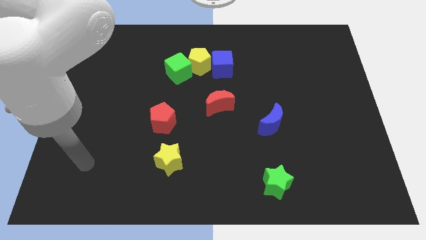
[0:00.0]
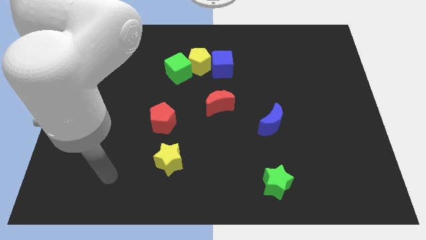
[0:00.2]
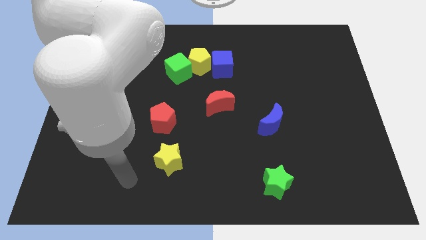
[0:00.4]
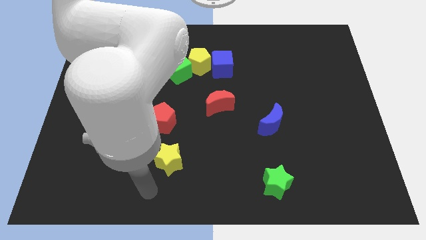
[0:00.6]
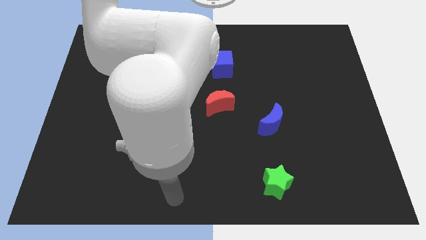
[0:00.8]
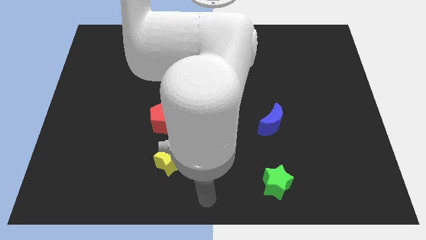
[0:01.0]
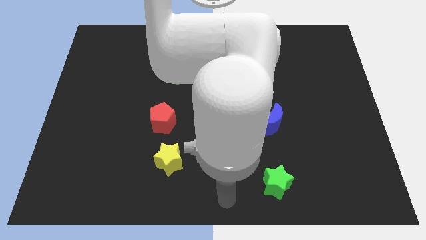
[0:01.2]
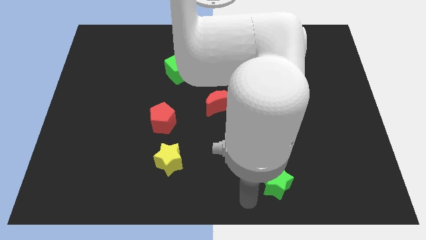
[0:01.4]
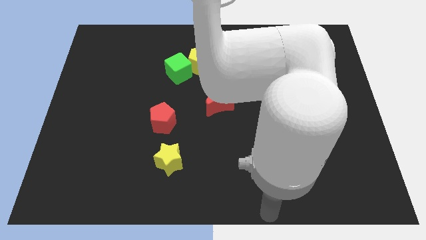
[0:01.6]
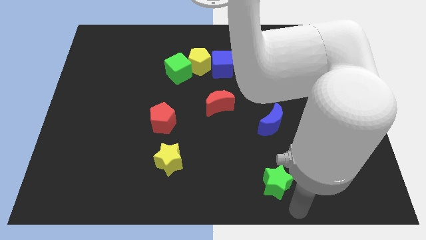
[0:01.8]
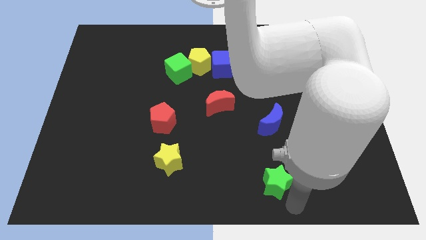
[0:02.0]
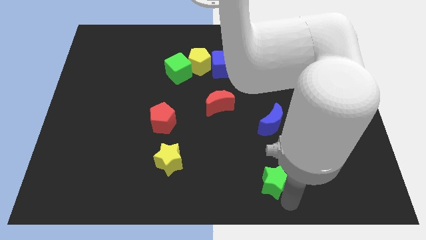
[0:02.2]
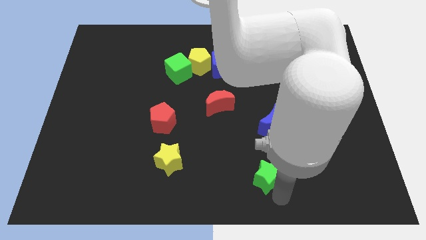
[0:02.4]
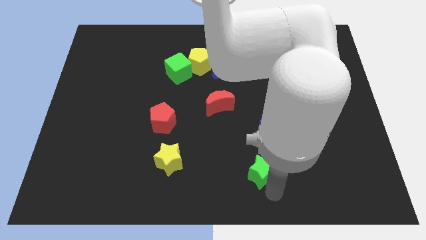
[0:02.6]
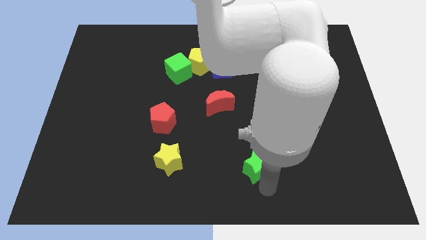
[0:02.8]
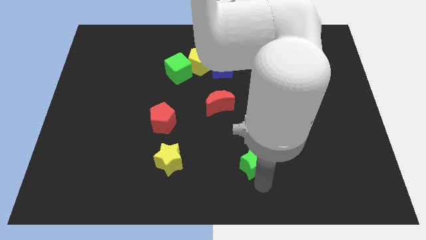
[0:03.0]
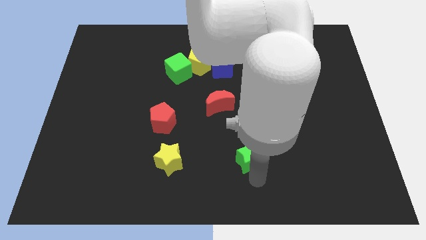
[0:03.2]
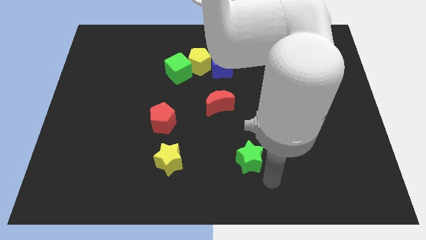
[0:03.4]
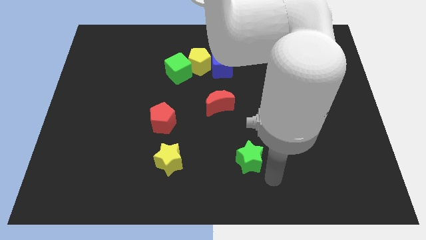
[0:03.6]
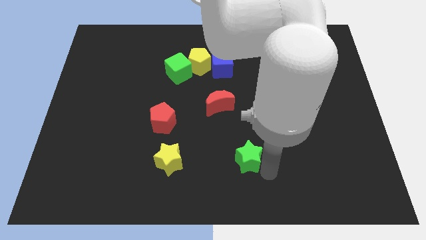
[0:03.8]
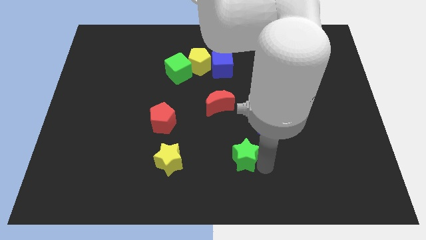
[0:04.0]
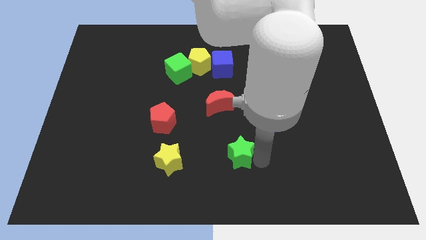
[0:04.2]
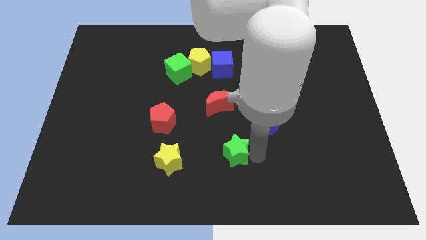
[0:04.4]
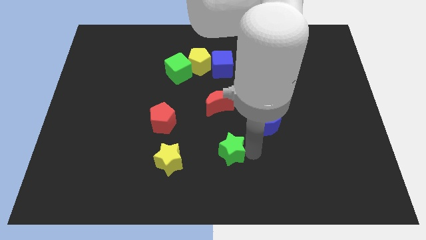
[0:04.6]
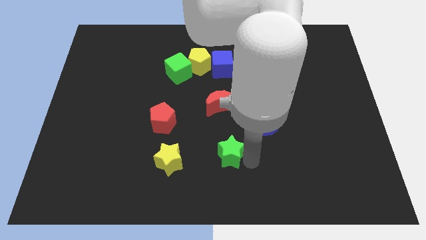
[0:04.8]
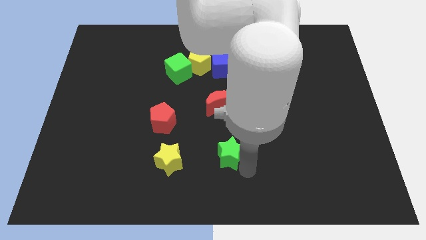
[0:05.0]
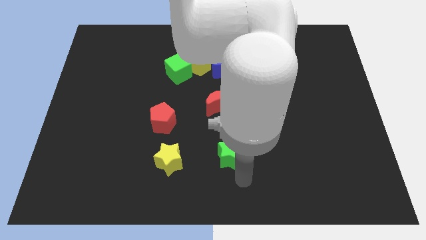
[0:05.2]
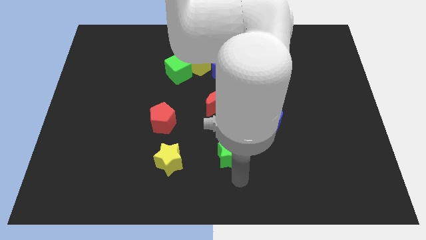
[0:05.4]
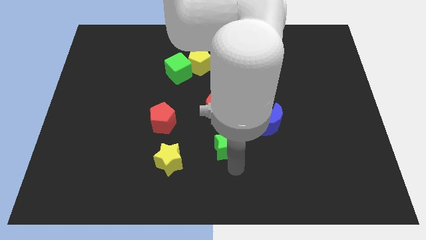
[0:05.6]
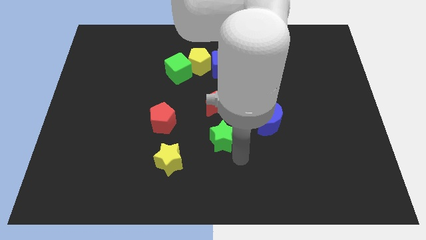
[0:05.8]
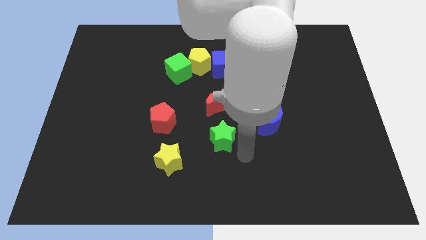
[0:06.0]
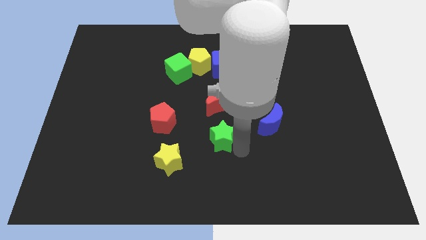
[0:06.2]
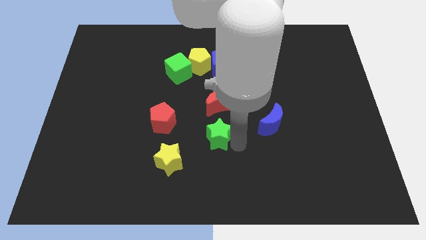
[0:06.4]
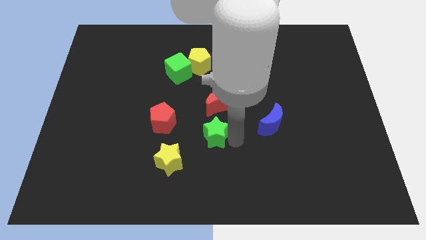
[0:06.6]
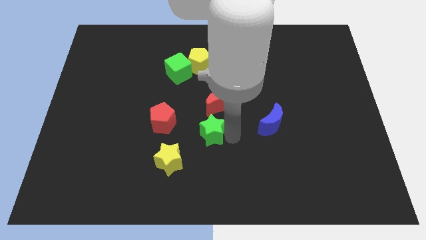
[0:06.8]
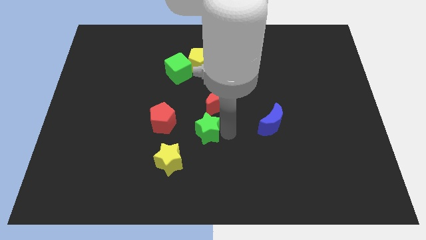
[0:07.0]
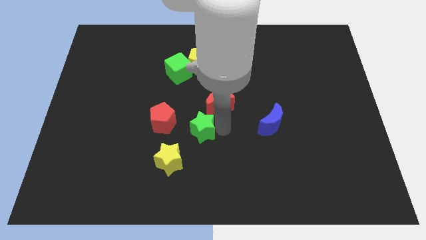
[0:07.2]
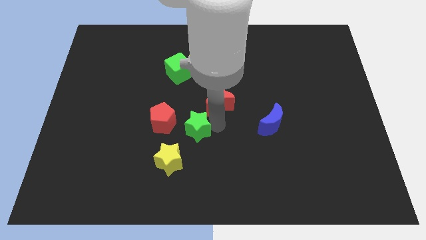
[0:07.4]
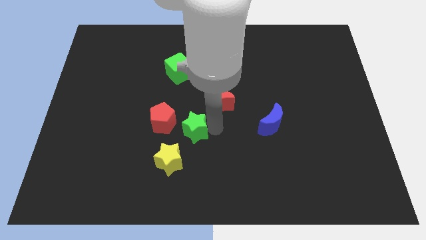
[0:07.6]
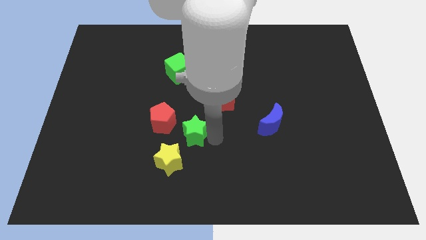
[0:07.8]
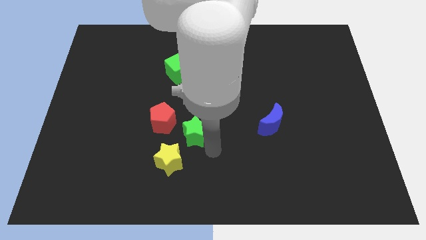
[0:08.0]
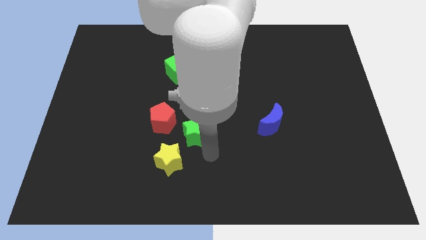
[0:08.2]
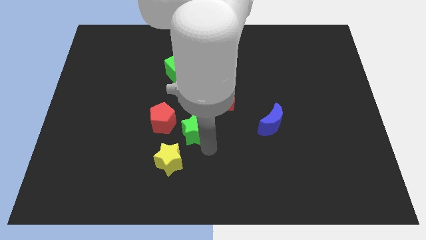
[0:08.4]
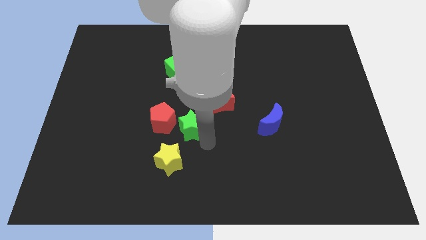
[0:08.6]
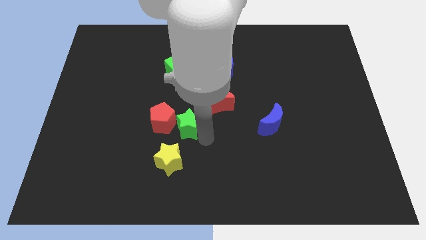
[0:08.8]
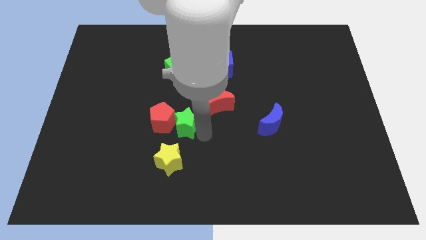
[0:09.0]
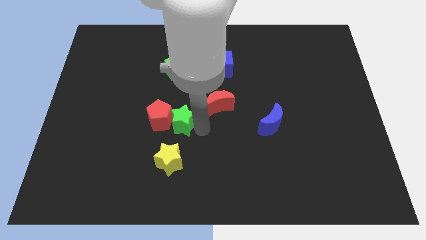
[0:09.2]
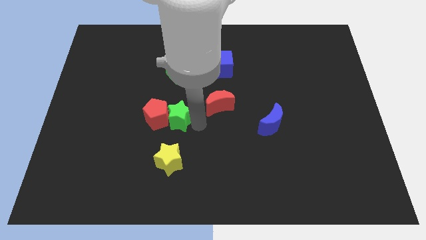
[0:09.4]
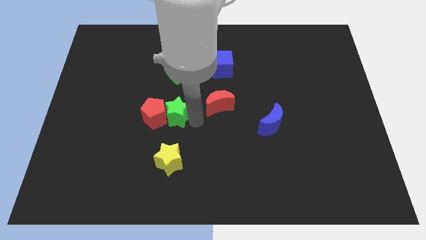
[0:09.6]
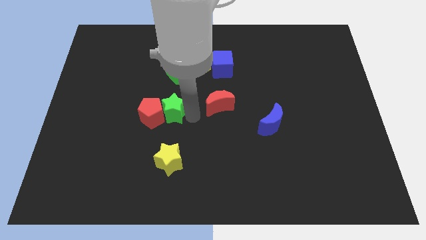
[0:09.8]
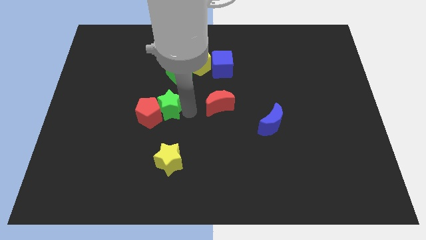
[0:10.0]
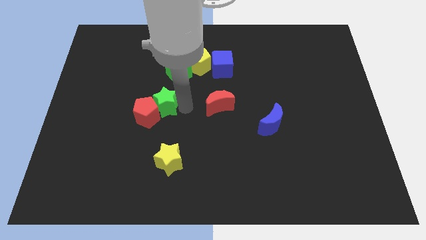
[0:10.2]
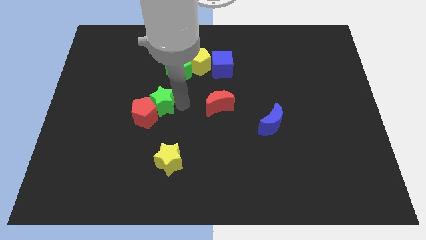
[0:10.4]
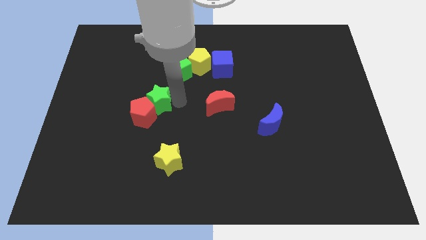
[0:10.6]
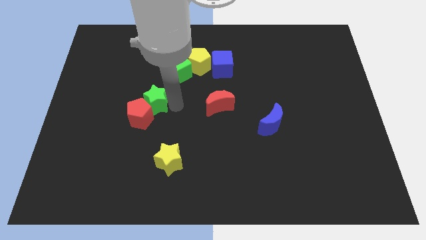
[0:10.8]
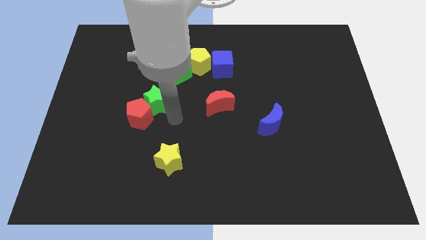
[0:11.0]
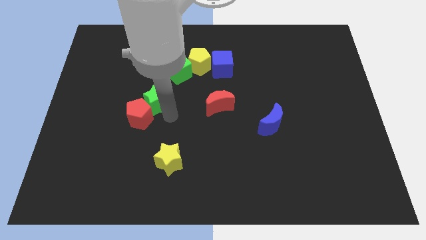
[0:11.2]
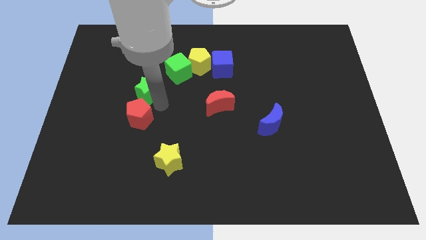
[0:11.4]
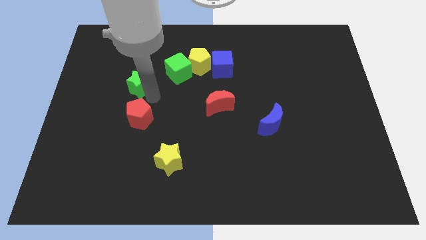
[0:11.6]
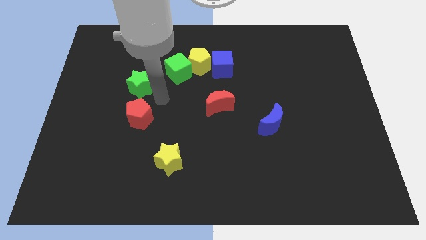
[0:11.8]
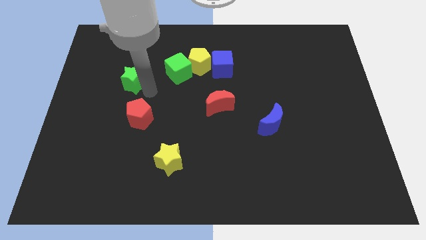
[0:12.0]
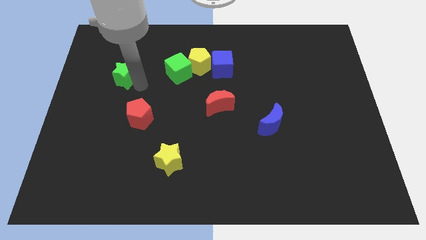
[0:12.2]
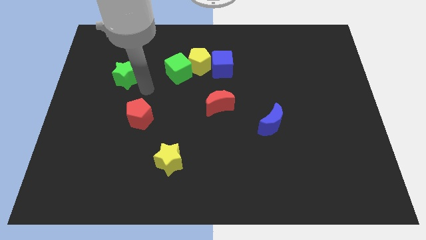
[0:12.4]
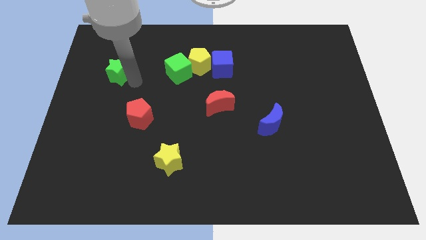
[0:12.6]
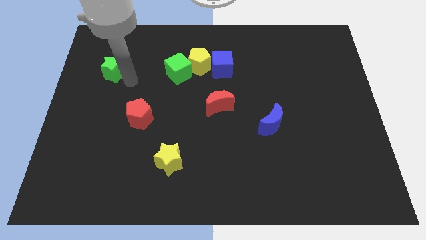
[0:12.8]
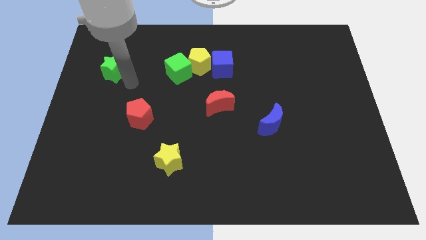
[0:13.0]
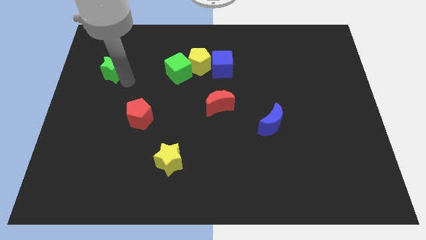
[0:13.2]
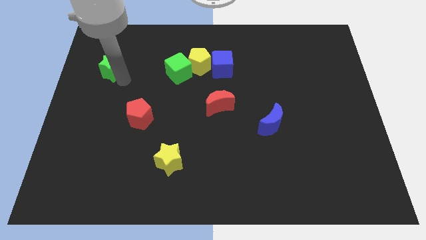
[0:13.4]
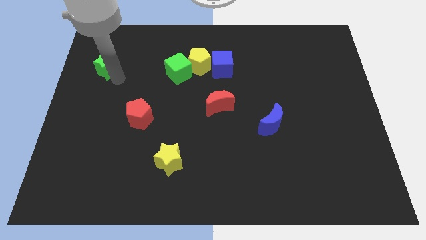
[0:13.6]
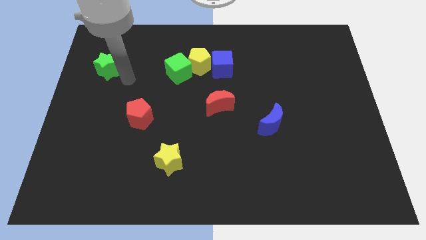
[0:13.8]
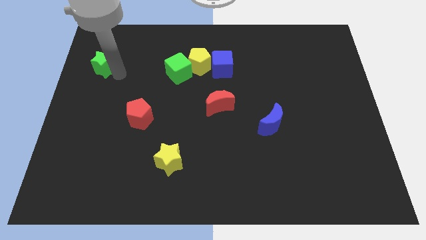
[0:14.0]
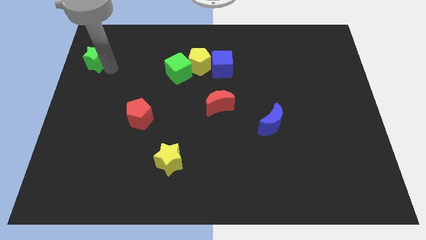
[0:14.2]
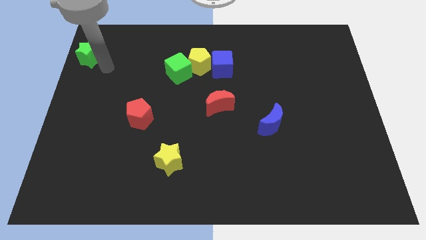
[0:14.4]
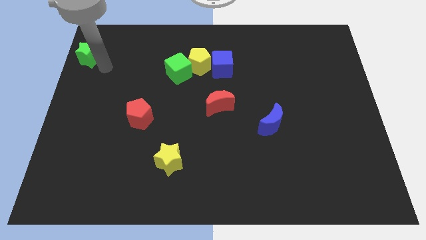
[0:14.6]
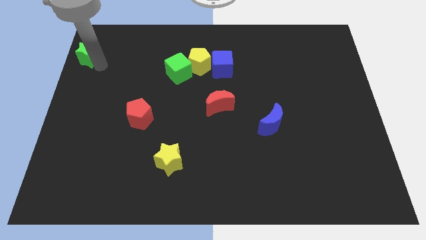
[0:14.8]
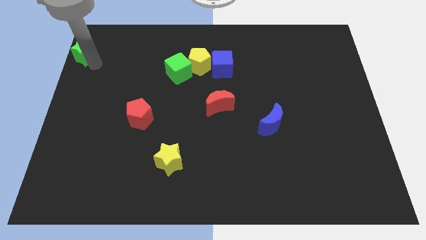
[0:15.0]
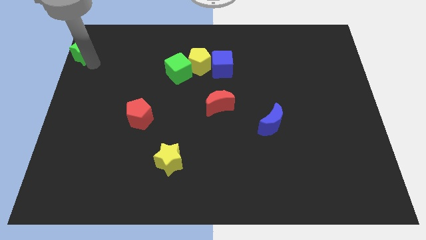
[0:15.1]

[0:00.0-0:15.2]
move the green star to the upper left corner
